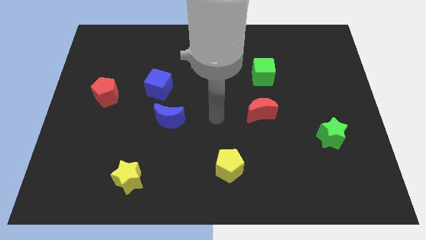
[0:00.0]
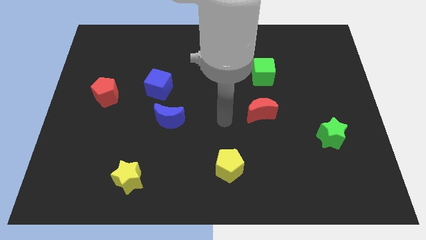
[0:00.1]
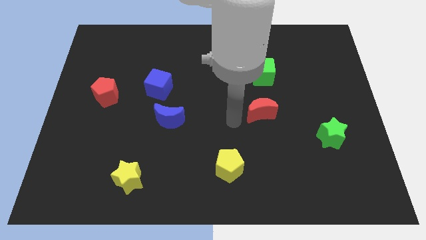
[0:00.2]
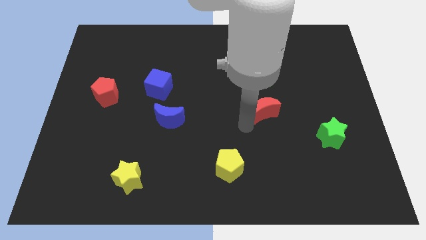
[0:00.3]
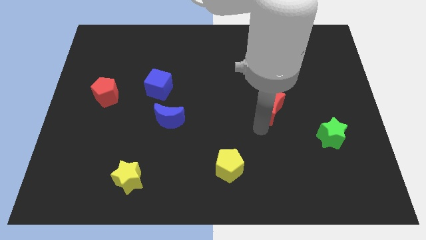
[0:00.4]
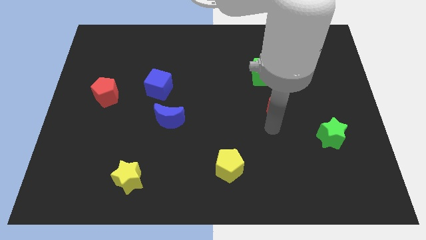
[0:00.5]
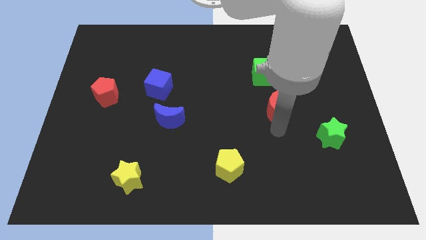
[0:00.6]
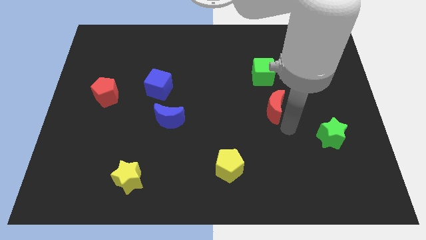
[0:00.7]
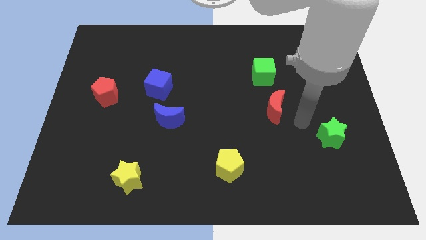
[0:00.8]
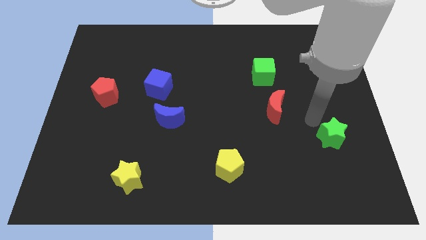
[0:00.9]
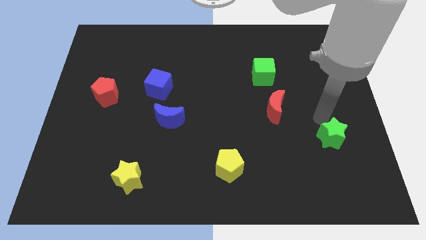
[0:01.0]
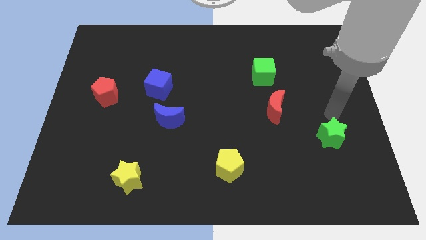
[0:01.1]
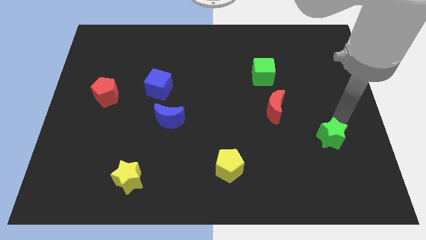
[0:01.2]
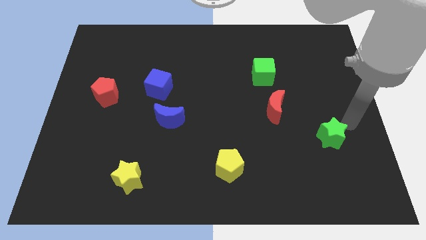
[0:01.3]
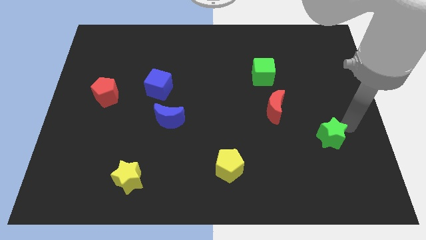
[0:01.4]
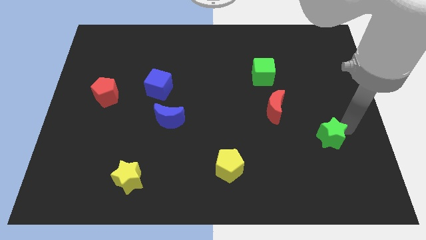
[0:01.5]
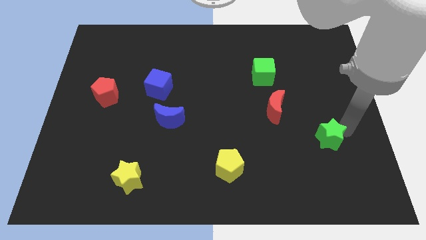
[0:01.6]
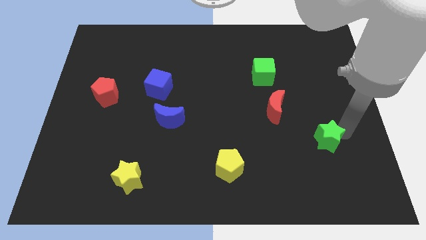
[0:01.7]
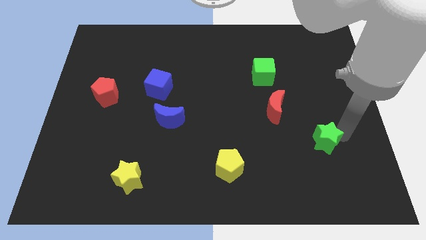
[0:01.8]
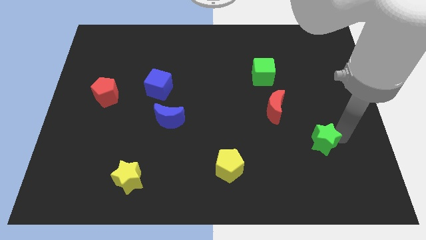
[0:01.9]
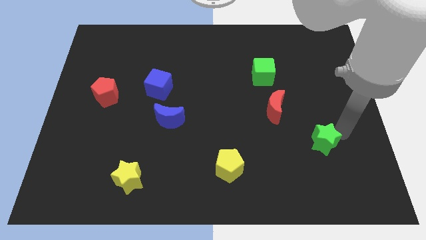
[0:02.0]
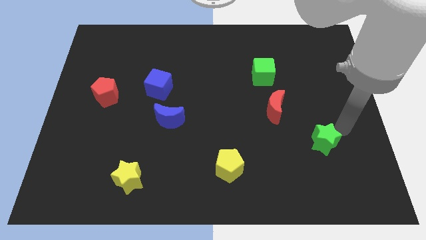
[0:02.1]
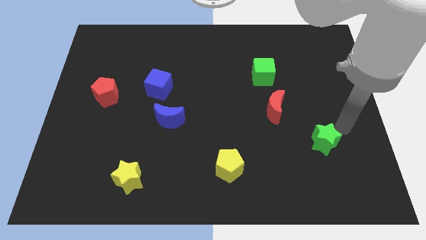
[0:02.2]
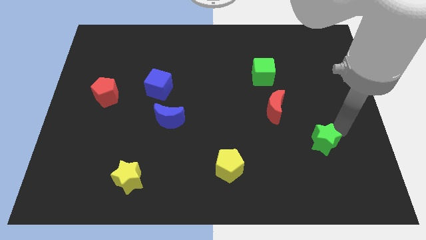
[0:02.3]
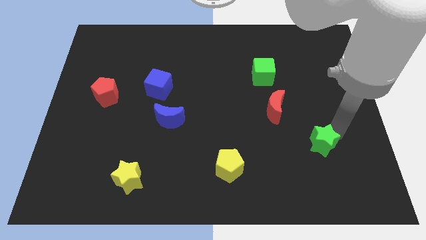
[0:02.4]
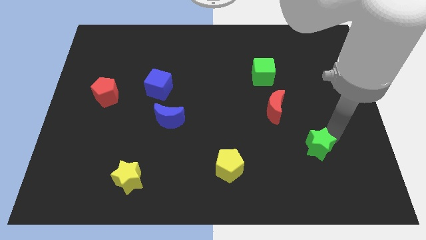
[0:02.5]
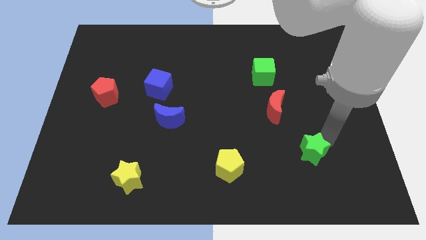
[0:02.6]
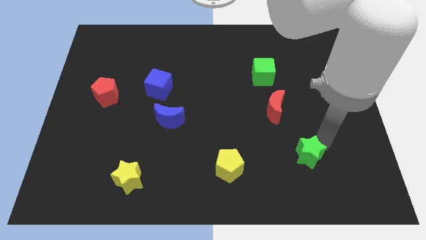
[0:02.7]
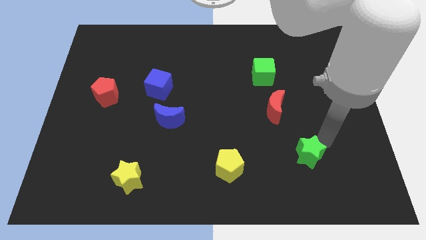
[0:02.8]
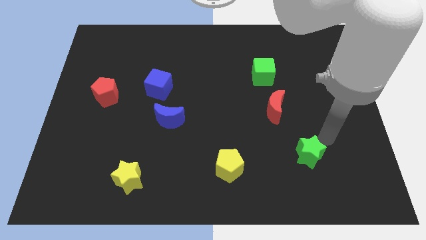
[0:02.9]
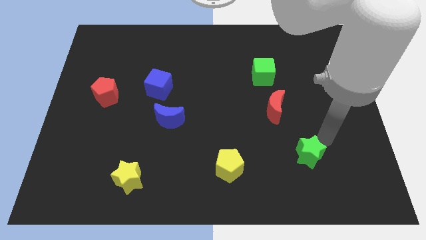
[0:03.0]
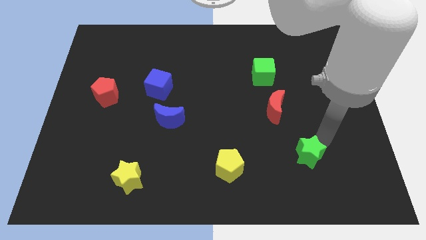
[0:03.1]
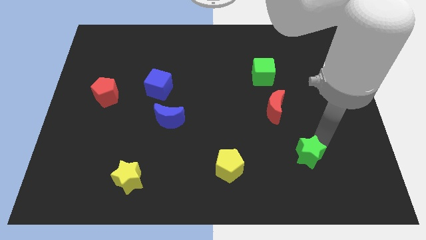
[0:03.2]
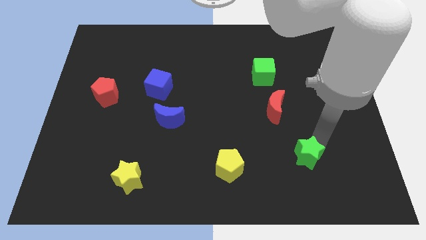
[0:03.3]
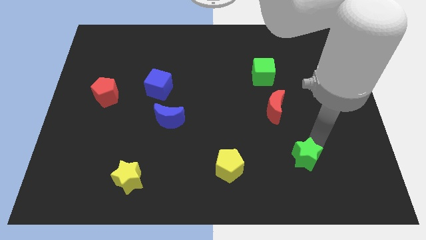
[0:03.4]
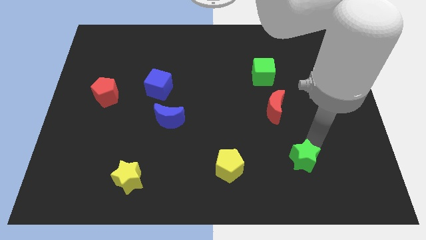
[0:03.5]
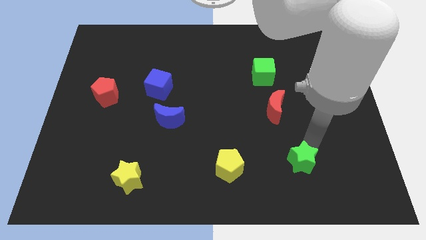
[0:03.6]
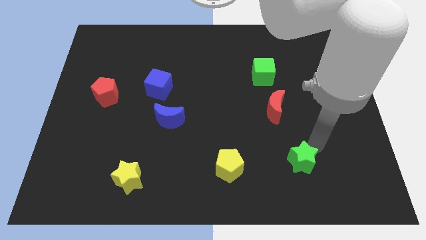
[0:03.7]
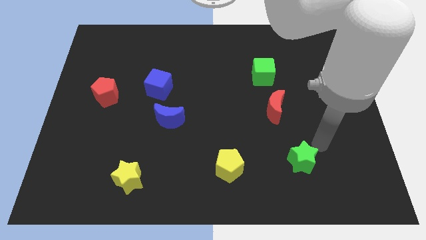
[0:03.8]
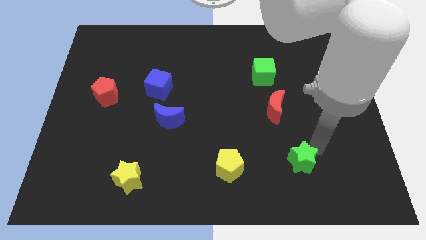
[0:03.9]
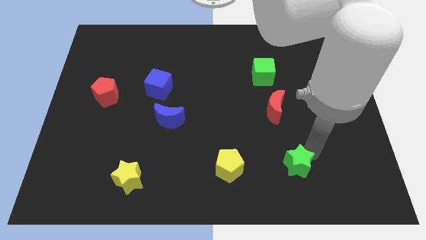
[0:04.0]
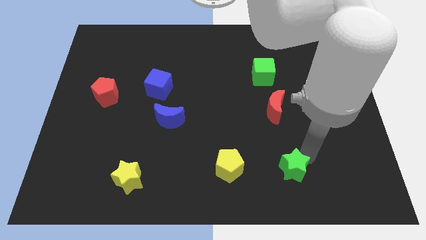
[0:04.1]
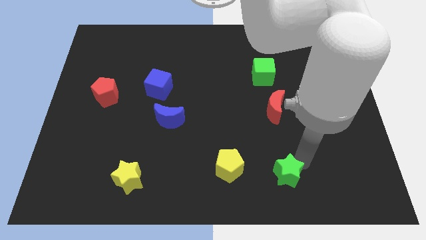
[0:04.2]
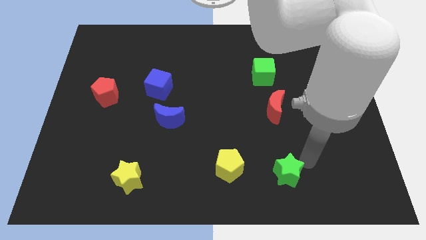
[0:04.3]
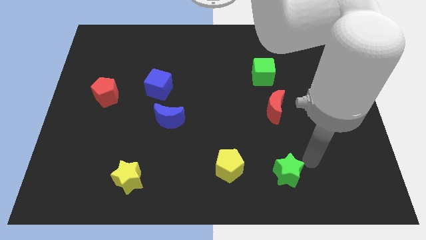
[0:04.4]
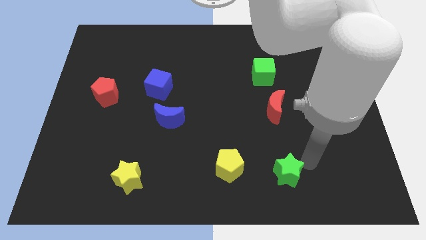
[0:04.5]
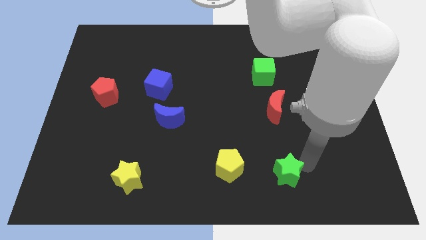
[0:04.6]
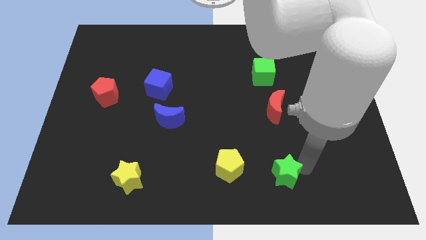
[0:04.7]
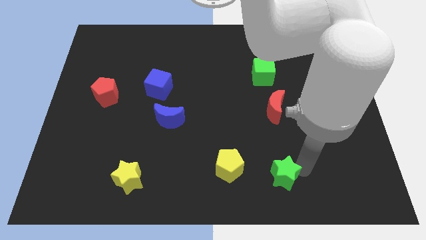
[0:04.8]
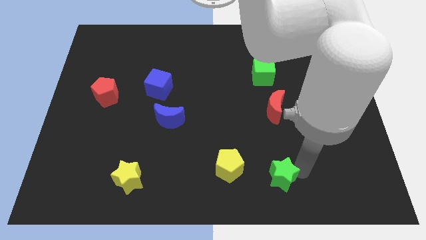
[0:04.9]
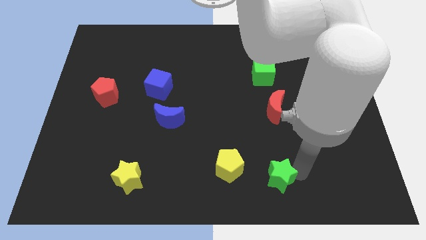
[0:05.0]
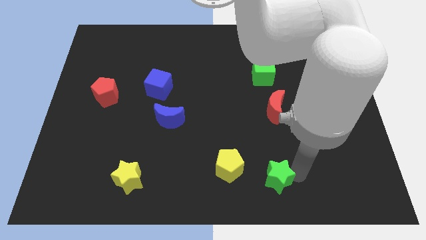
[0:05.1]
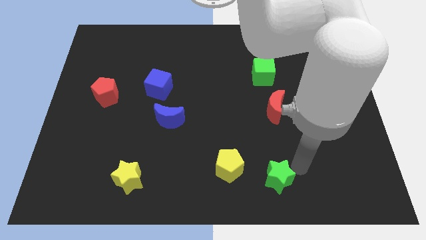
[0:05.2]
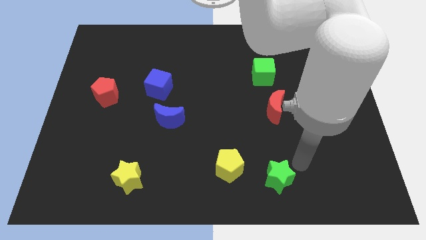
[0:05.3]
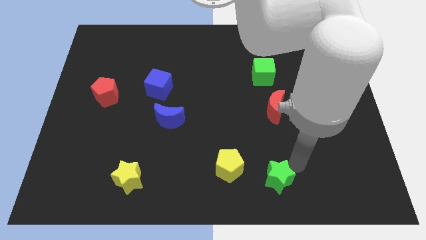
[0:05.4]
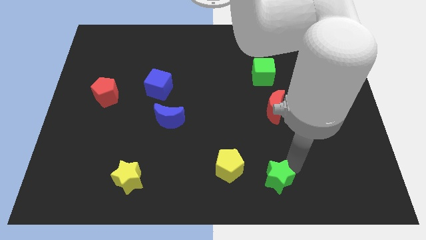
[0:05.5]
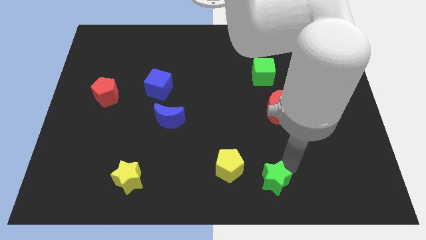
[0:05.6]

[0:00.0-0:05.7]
move the green star to the bottom
